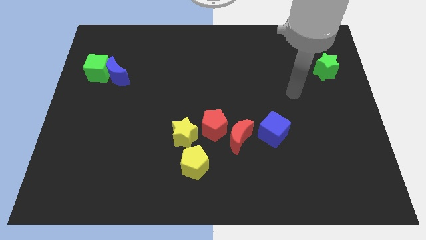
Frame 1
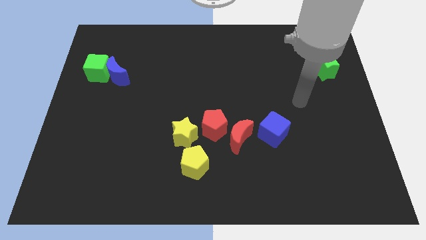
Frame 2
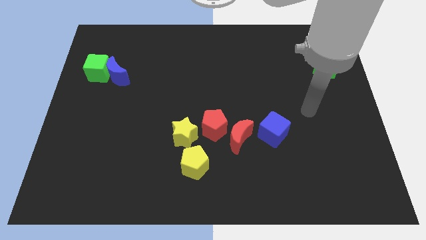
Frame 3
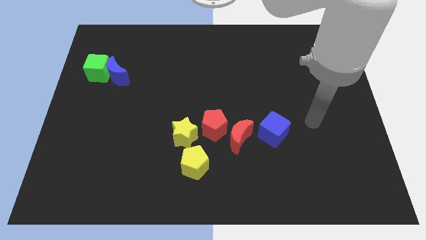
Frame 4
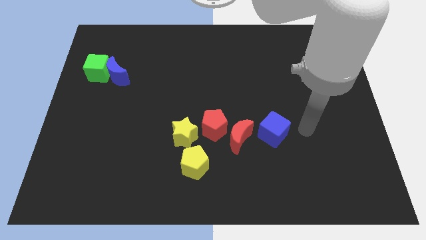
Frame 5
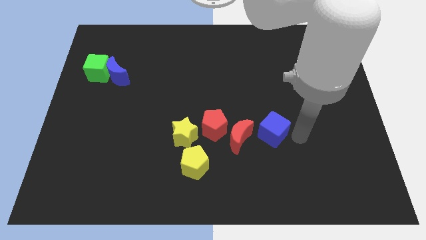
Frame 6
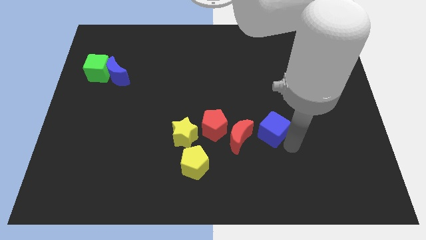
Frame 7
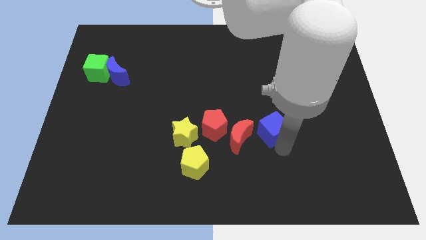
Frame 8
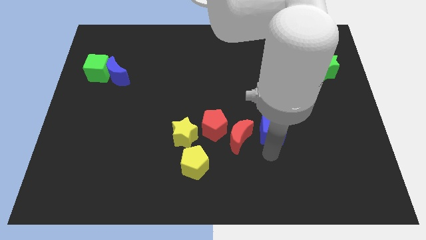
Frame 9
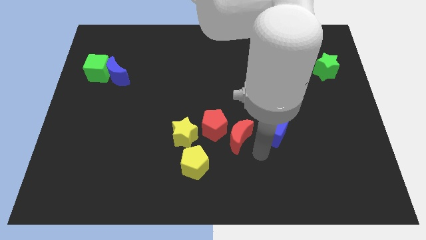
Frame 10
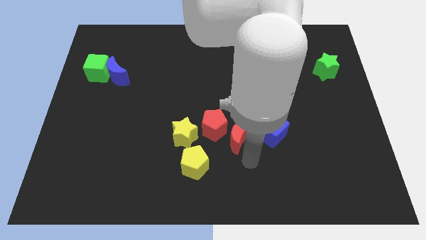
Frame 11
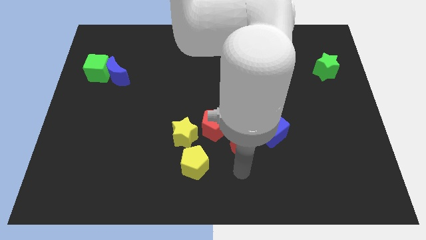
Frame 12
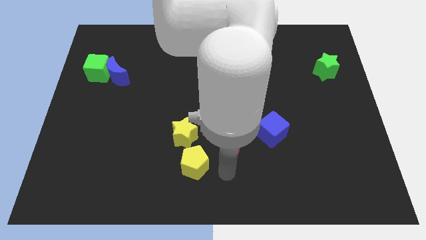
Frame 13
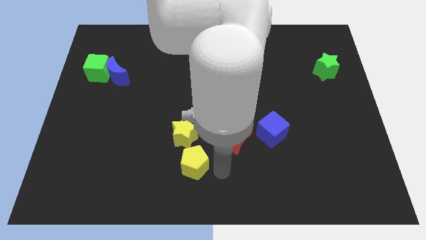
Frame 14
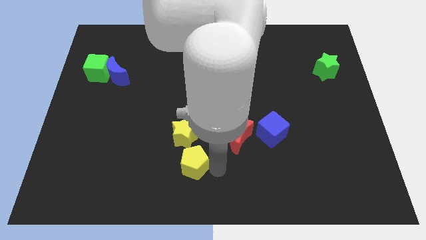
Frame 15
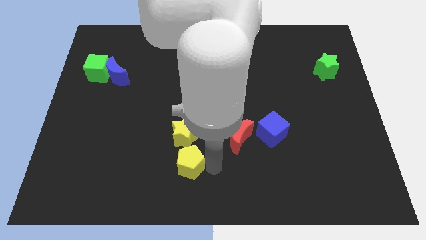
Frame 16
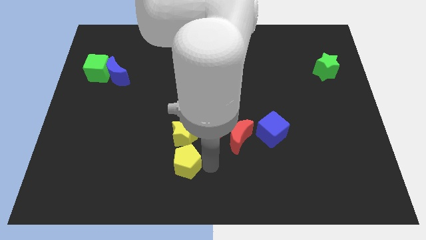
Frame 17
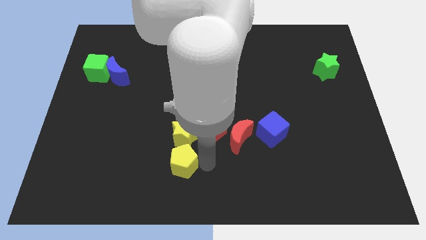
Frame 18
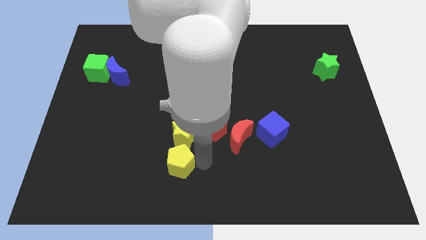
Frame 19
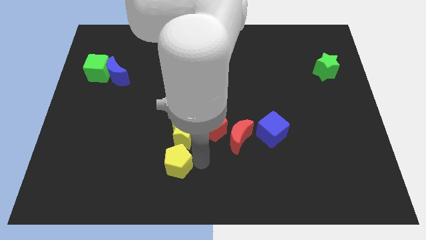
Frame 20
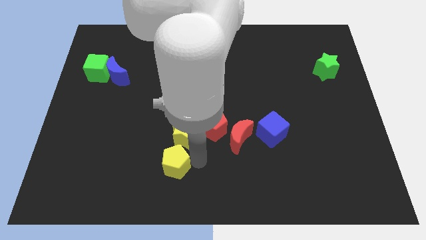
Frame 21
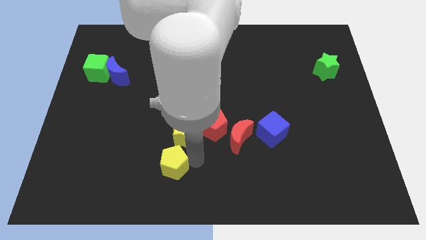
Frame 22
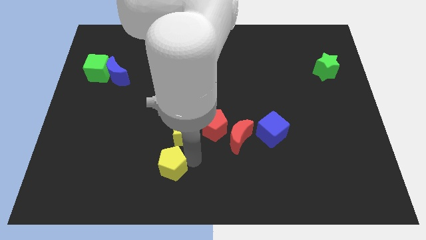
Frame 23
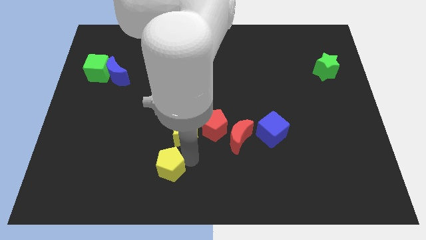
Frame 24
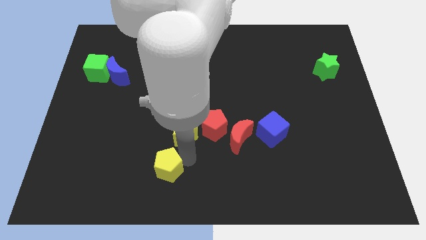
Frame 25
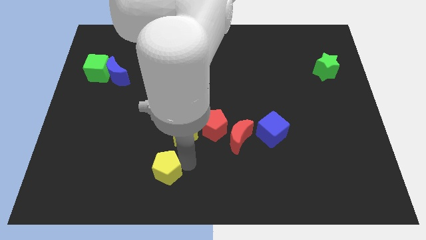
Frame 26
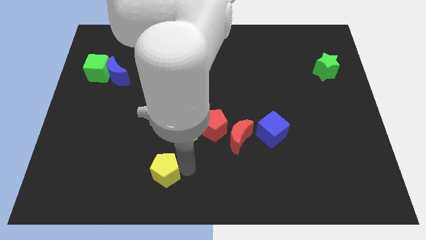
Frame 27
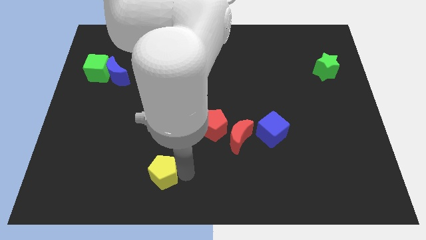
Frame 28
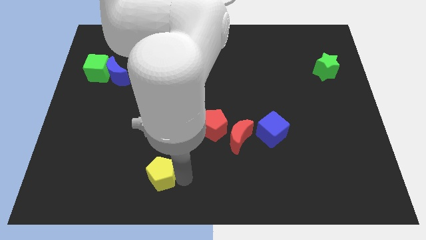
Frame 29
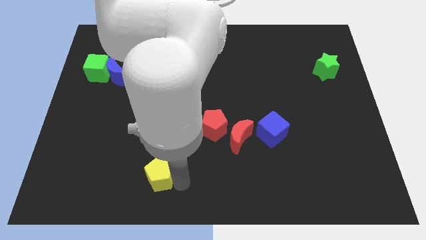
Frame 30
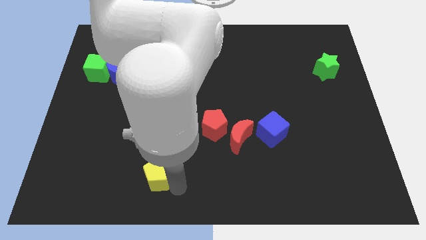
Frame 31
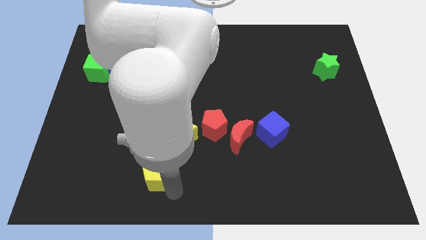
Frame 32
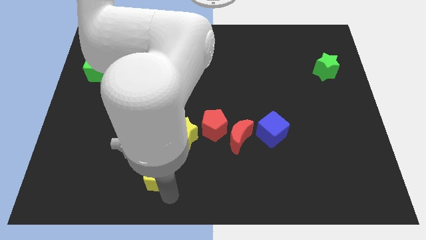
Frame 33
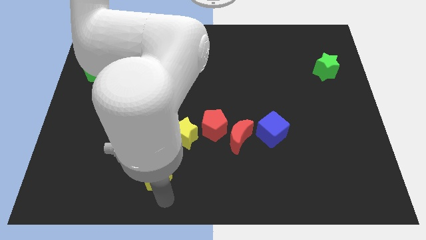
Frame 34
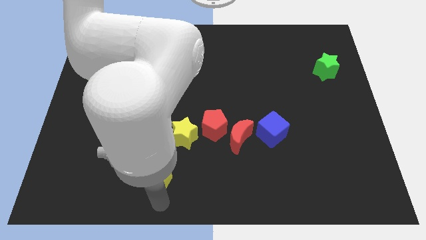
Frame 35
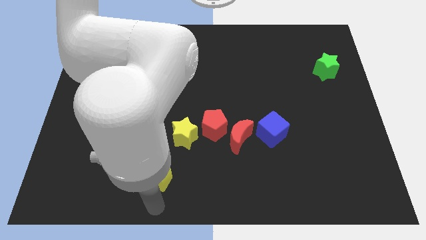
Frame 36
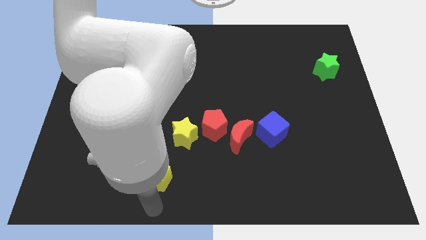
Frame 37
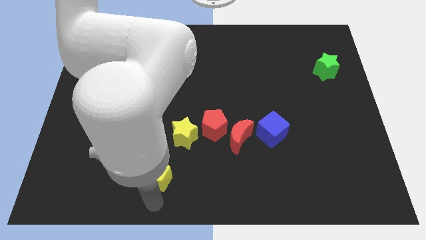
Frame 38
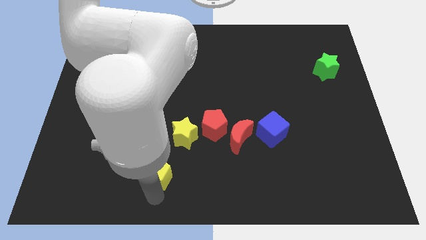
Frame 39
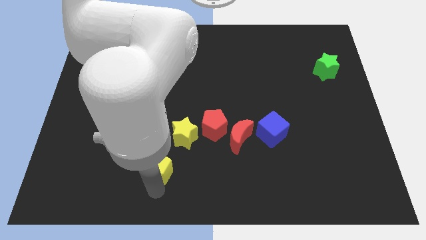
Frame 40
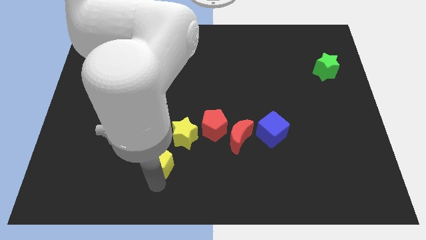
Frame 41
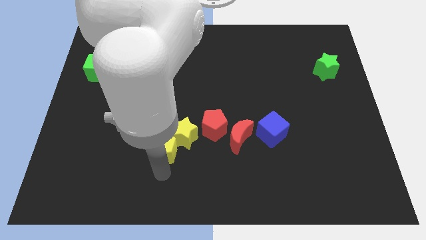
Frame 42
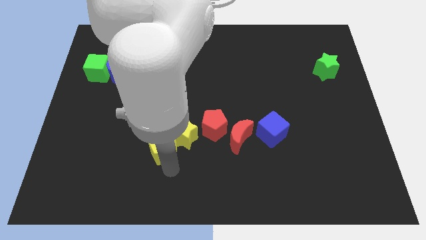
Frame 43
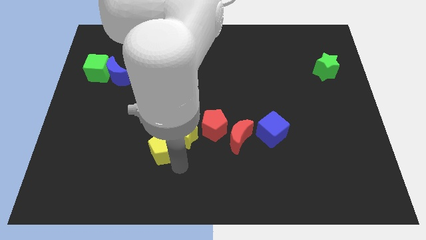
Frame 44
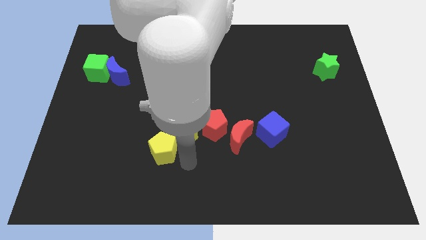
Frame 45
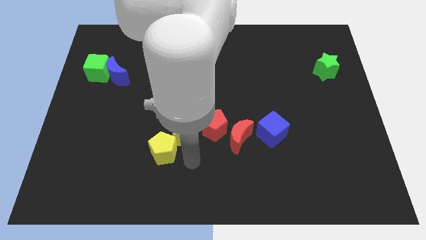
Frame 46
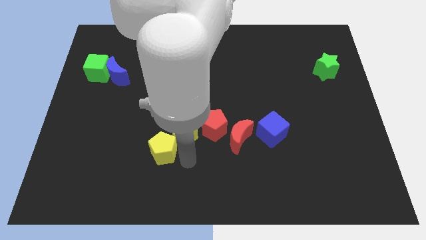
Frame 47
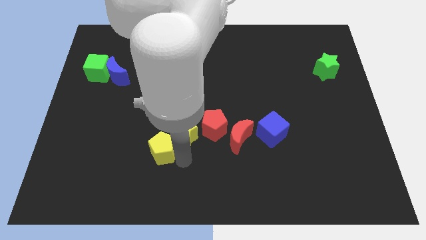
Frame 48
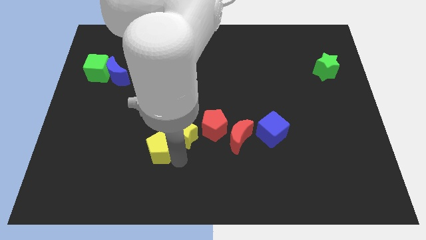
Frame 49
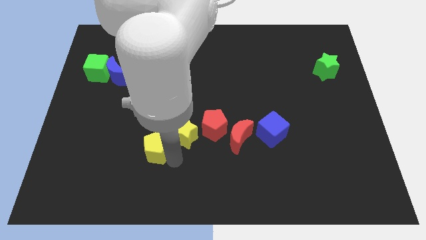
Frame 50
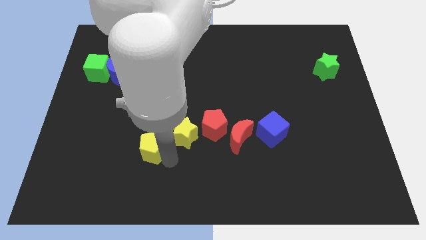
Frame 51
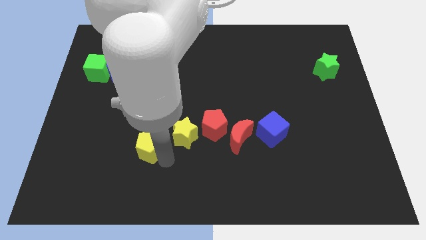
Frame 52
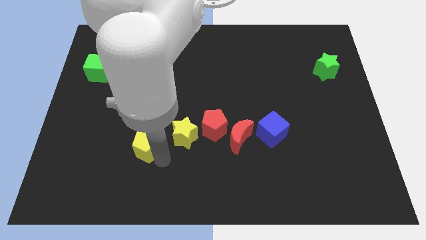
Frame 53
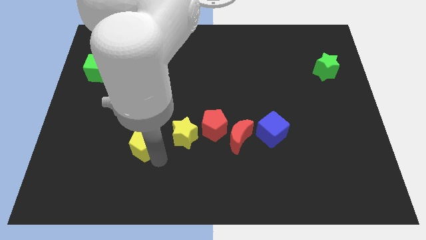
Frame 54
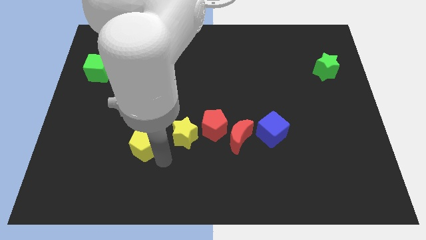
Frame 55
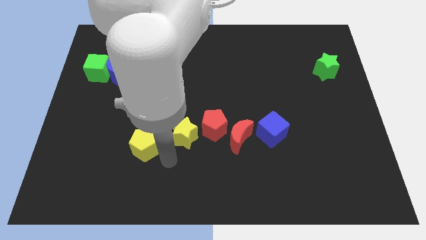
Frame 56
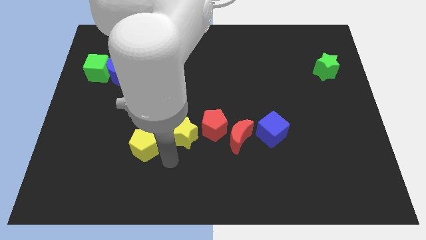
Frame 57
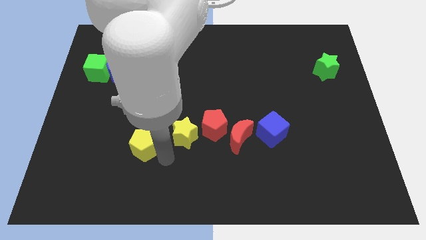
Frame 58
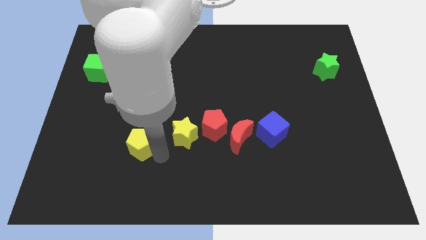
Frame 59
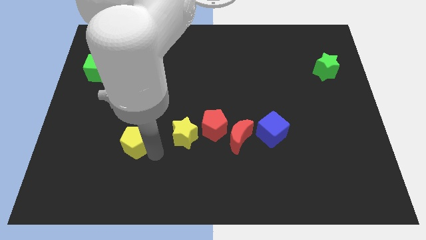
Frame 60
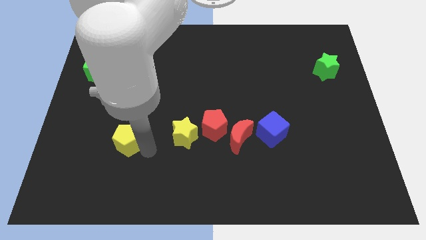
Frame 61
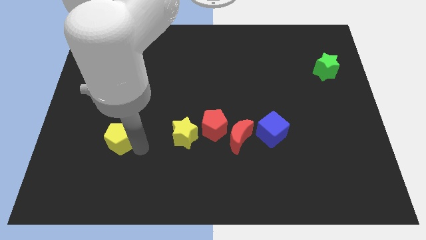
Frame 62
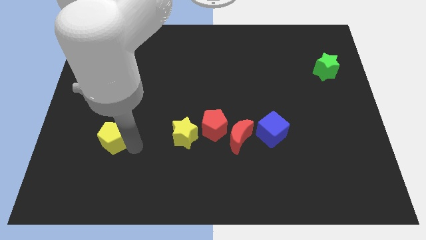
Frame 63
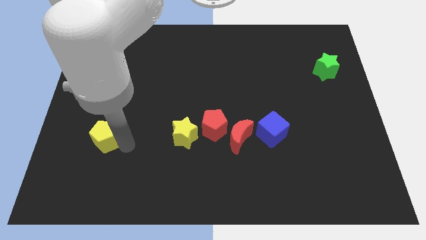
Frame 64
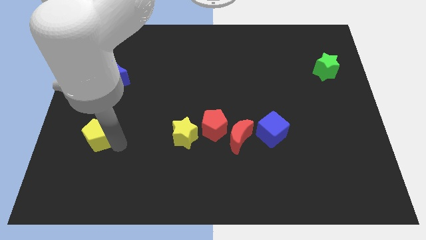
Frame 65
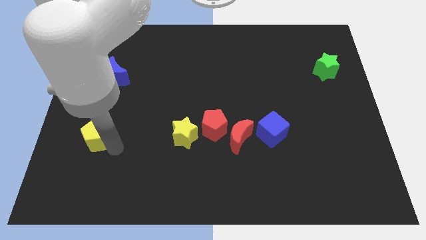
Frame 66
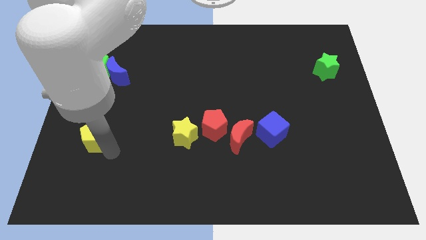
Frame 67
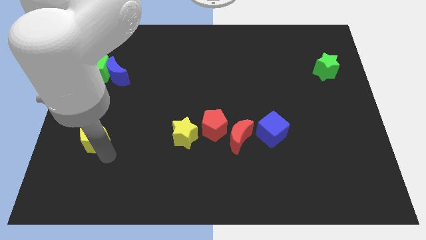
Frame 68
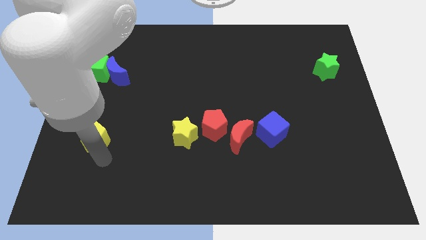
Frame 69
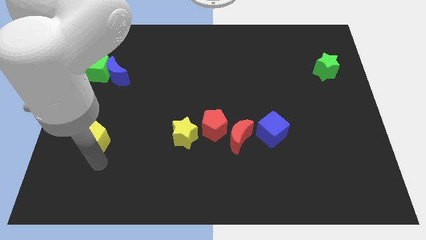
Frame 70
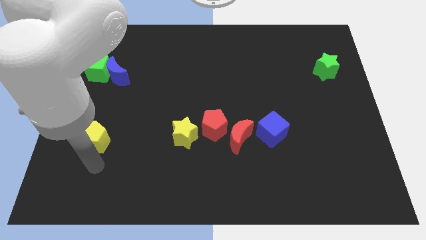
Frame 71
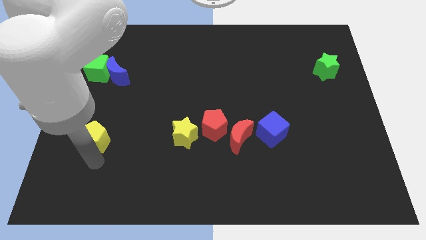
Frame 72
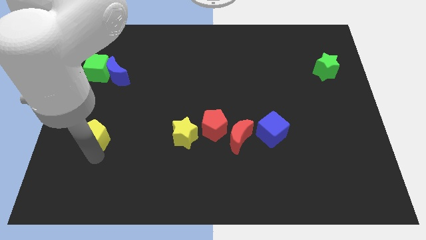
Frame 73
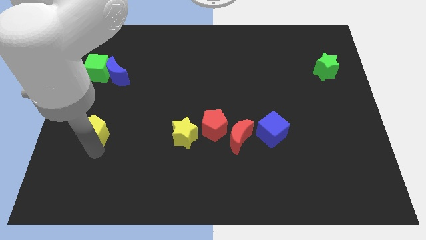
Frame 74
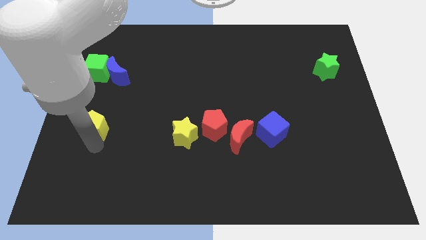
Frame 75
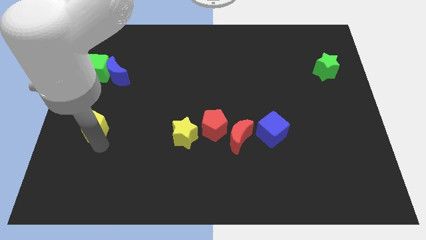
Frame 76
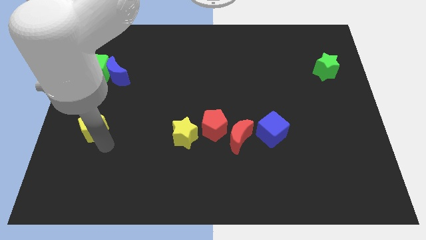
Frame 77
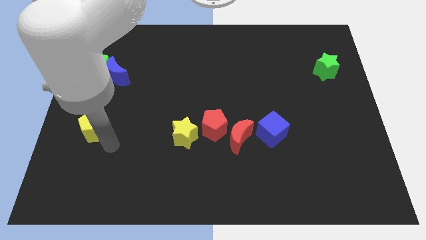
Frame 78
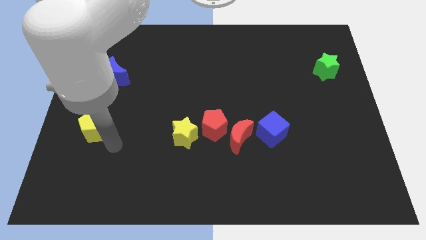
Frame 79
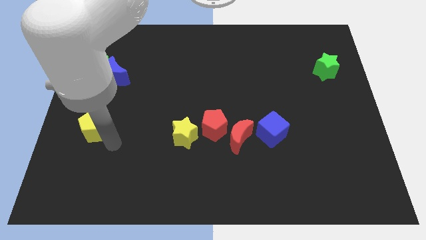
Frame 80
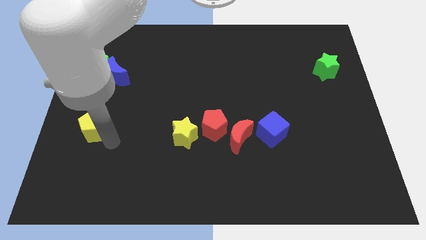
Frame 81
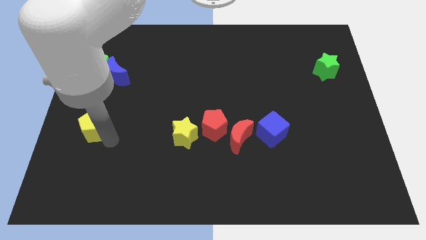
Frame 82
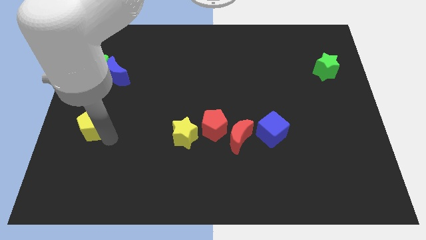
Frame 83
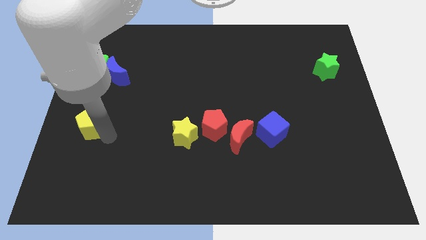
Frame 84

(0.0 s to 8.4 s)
move the yellow pentagon to the center left
